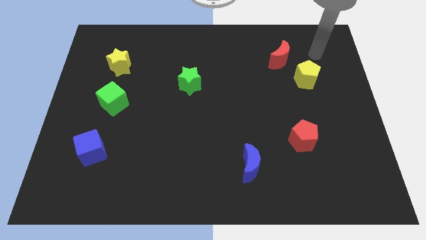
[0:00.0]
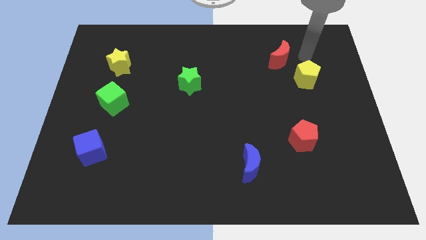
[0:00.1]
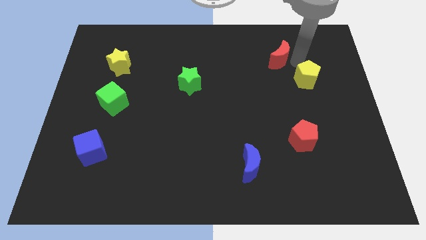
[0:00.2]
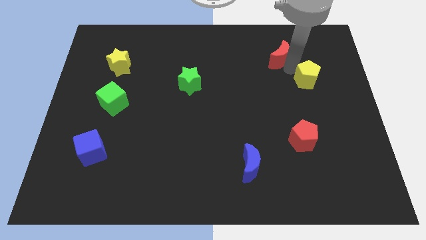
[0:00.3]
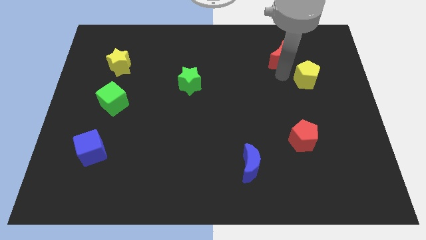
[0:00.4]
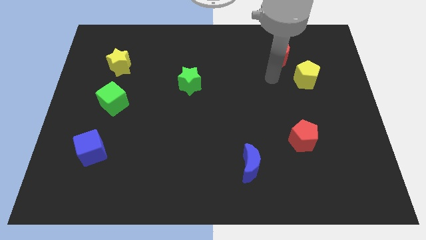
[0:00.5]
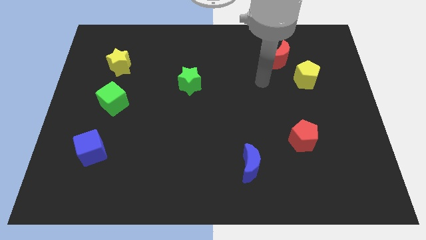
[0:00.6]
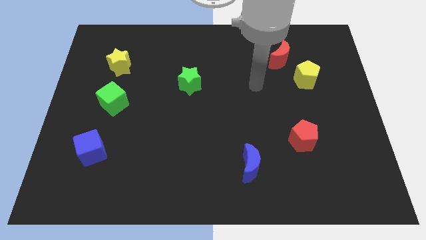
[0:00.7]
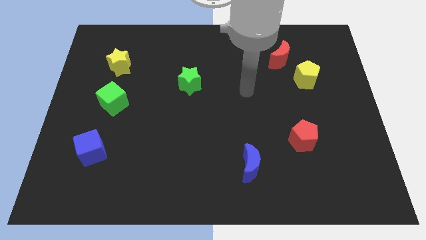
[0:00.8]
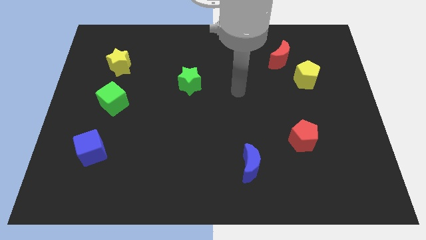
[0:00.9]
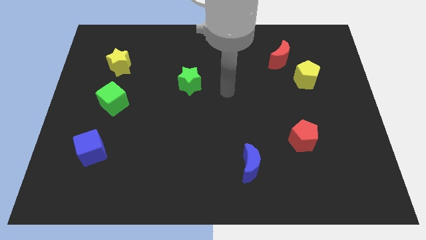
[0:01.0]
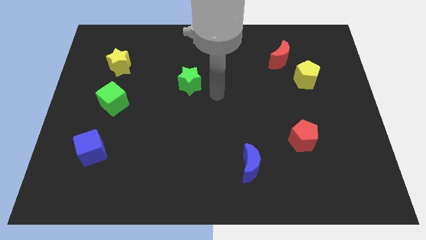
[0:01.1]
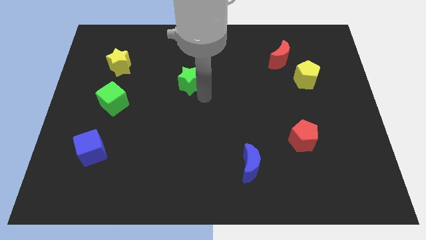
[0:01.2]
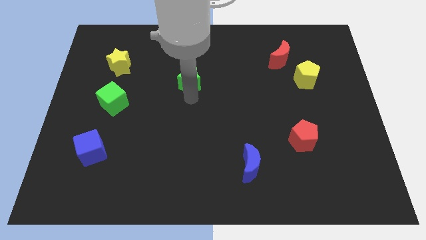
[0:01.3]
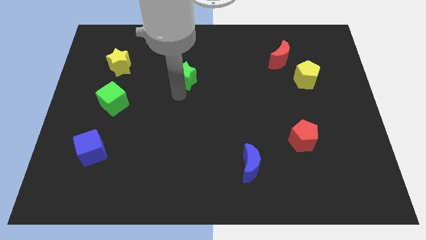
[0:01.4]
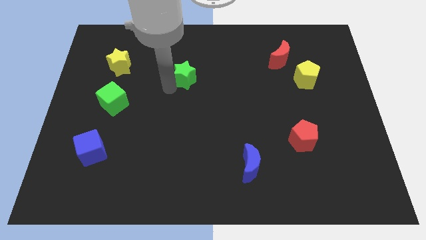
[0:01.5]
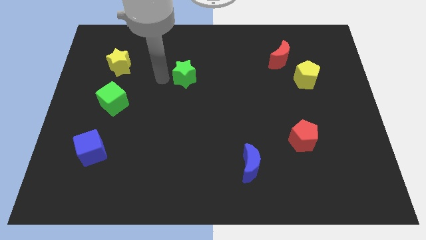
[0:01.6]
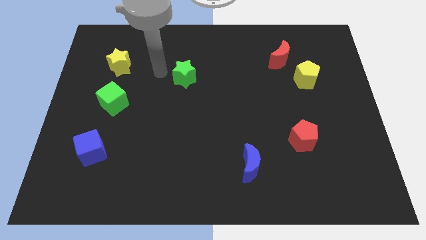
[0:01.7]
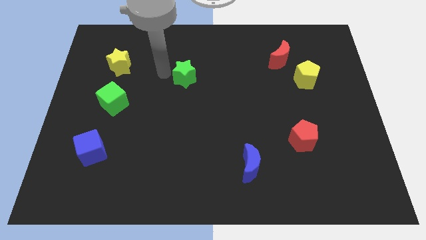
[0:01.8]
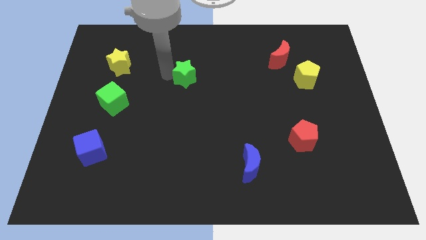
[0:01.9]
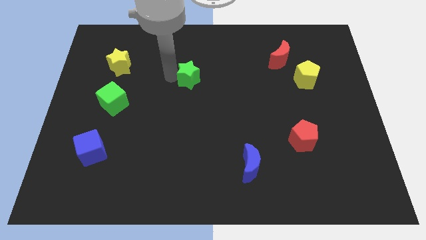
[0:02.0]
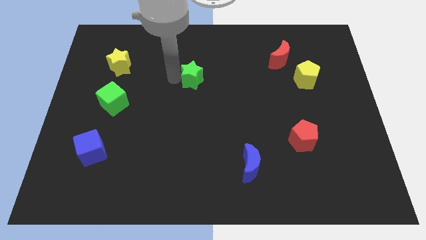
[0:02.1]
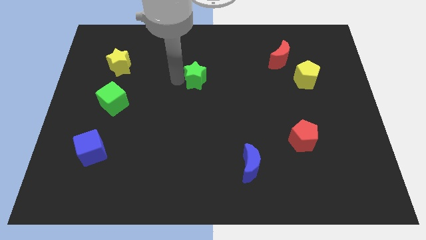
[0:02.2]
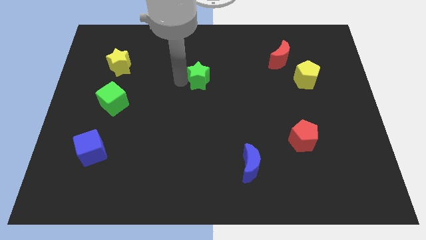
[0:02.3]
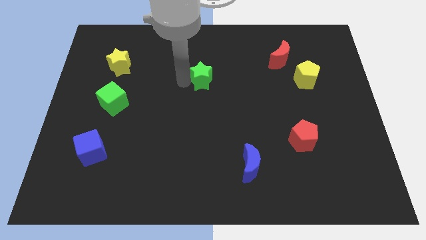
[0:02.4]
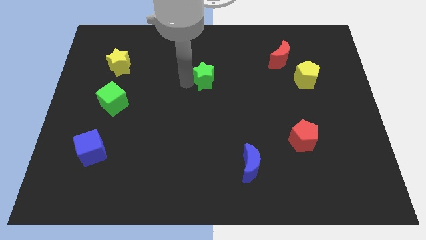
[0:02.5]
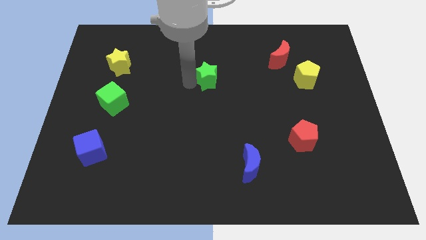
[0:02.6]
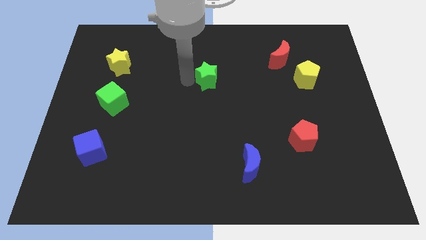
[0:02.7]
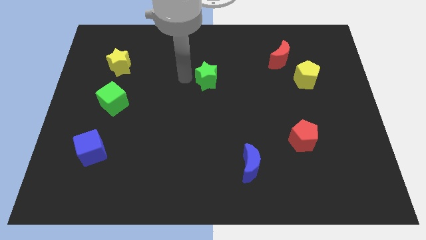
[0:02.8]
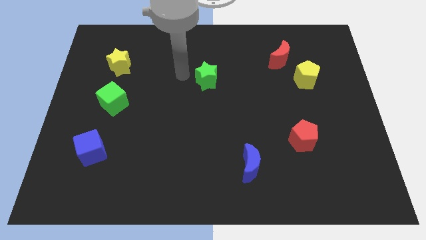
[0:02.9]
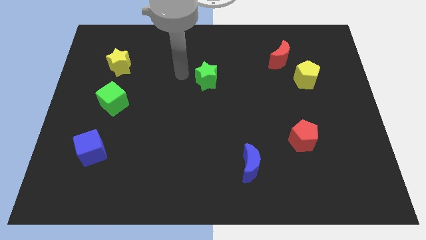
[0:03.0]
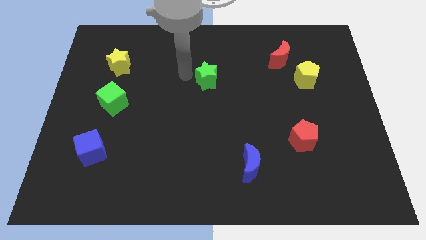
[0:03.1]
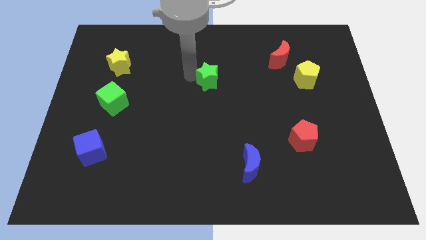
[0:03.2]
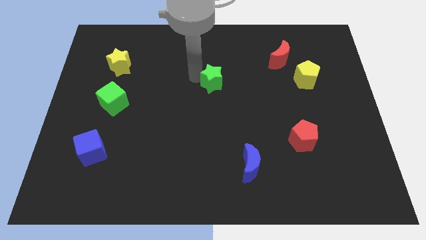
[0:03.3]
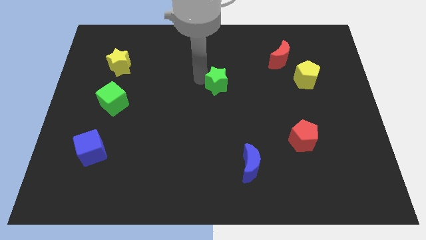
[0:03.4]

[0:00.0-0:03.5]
slightly push the green star right

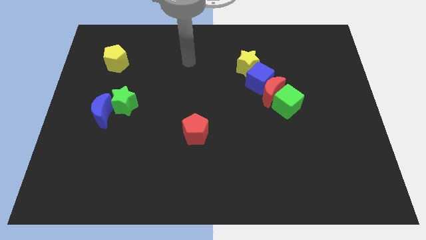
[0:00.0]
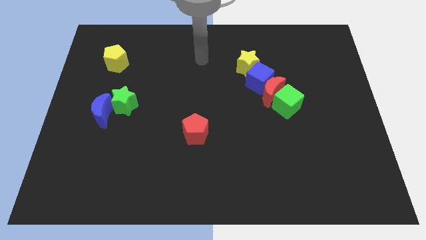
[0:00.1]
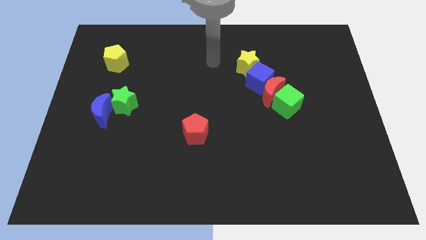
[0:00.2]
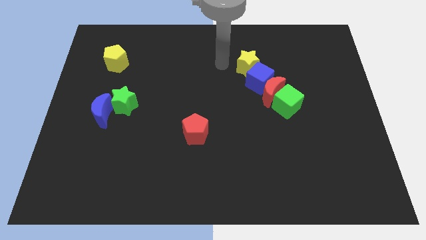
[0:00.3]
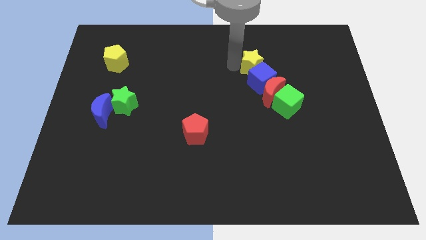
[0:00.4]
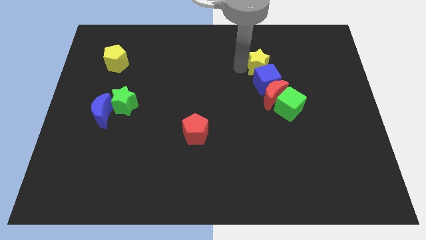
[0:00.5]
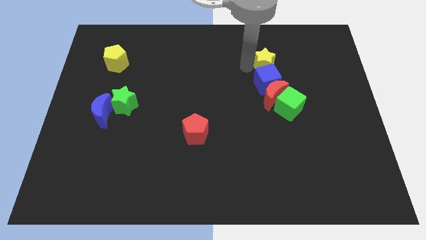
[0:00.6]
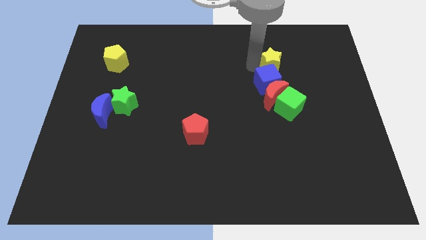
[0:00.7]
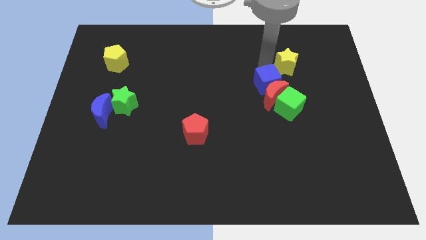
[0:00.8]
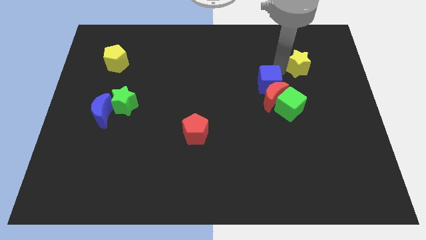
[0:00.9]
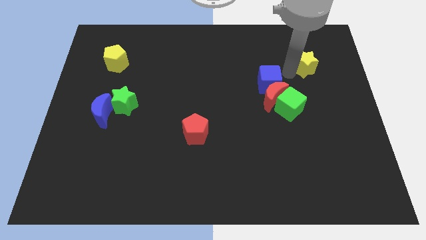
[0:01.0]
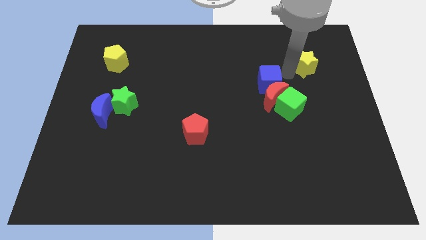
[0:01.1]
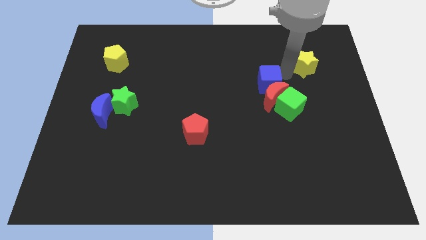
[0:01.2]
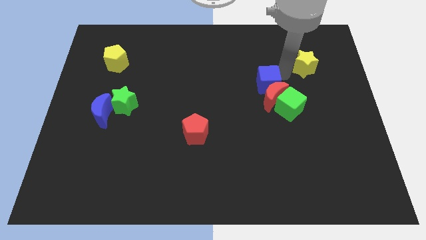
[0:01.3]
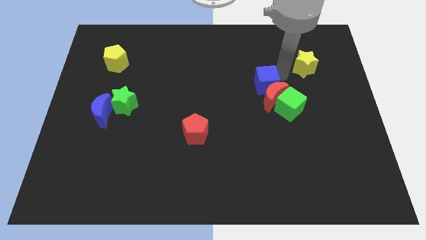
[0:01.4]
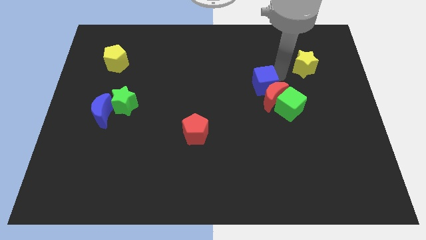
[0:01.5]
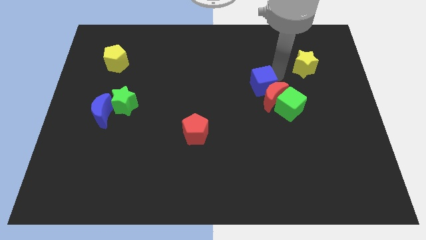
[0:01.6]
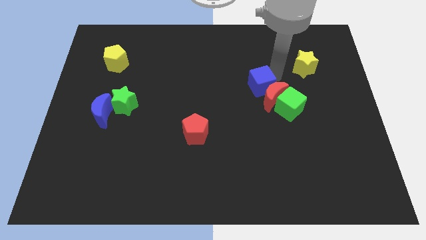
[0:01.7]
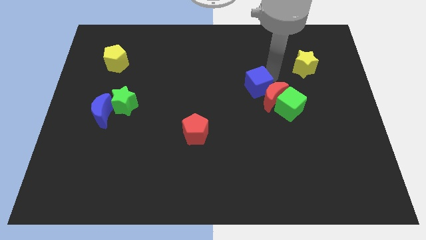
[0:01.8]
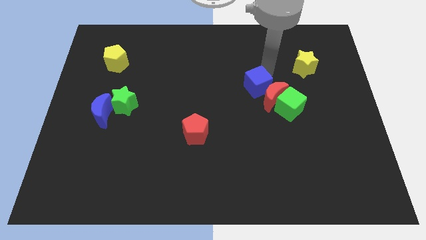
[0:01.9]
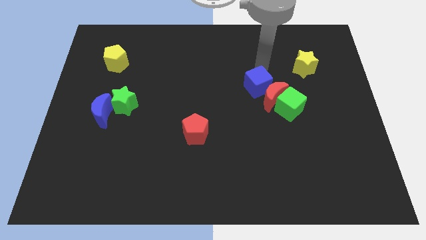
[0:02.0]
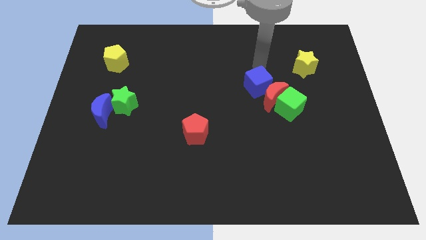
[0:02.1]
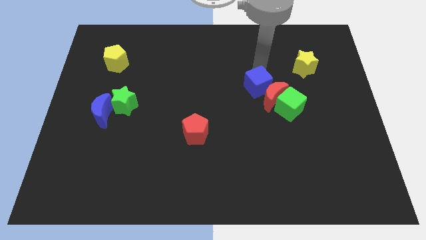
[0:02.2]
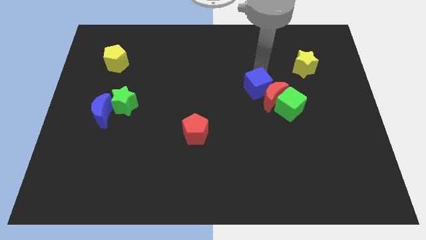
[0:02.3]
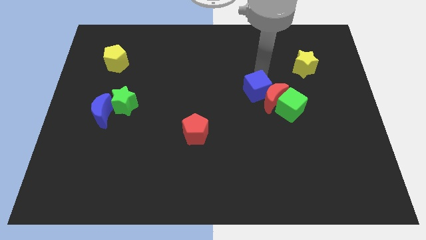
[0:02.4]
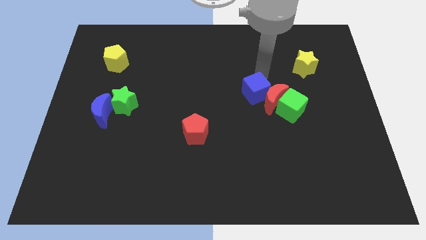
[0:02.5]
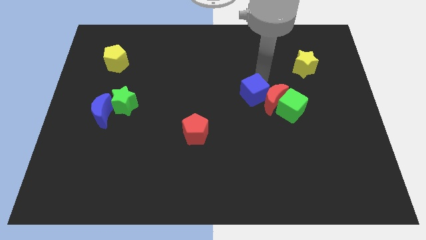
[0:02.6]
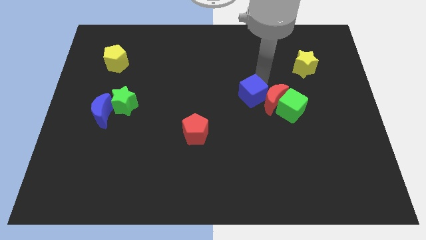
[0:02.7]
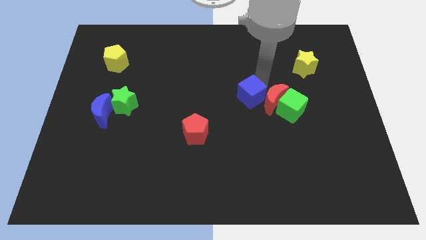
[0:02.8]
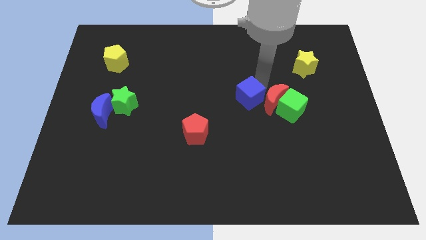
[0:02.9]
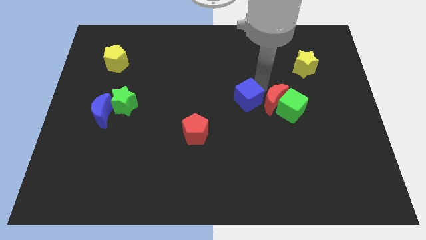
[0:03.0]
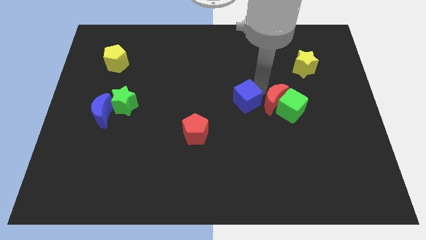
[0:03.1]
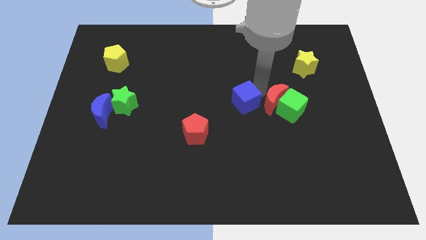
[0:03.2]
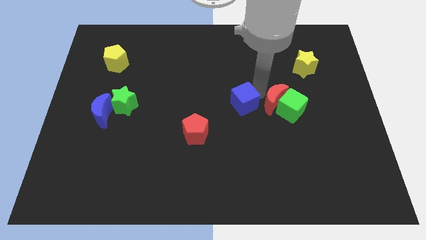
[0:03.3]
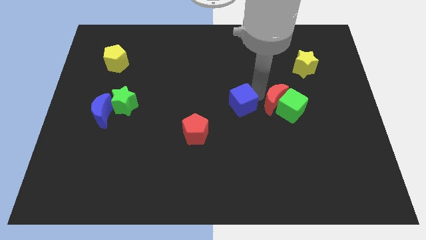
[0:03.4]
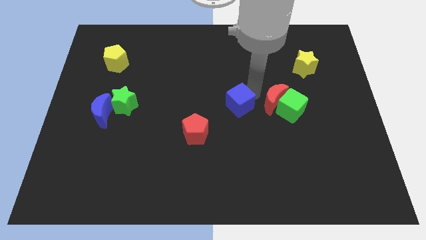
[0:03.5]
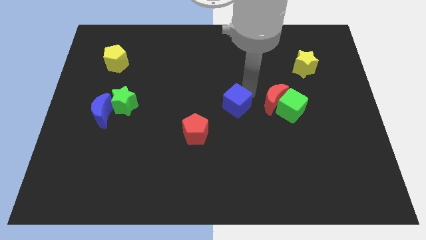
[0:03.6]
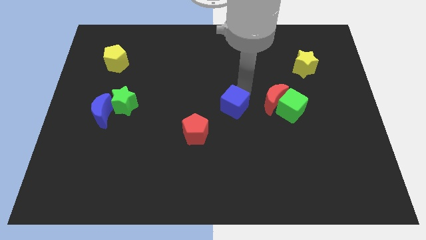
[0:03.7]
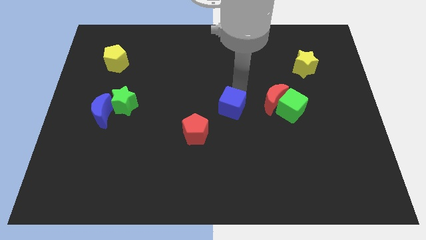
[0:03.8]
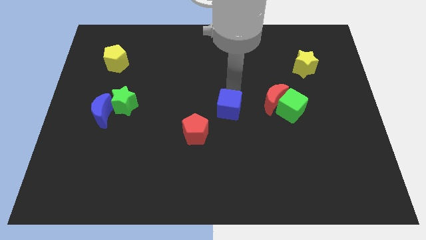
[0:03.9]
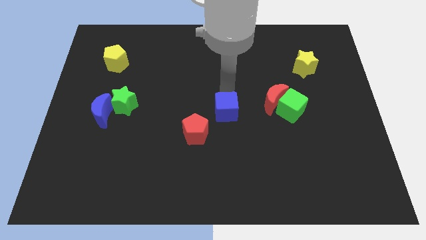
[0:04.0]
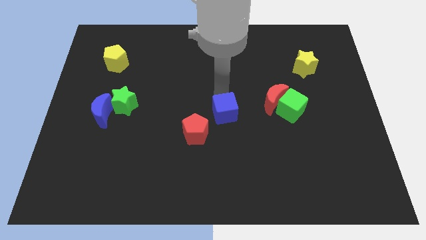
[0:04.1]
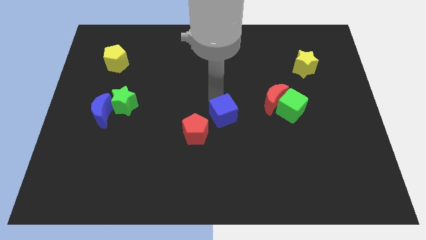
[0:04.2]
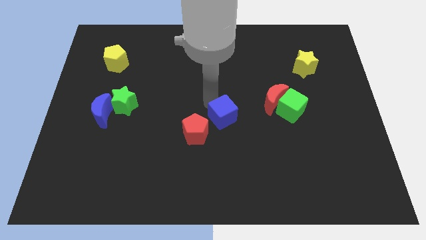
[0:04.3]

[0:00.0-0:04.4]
push the blue cube down a little bit
